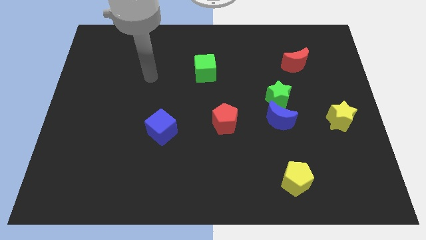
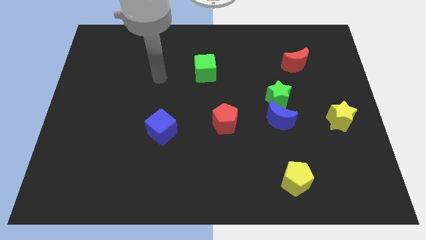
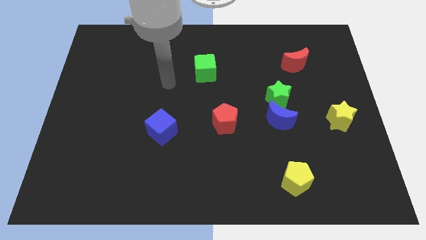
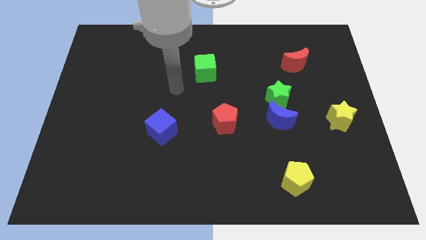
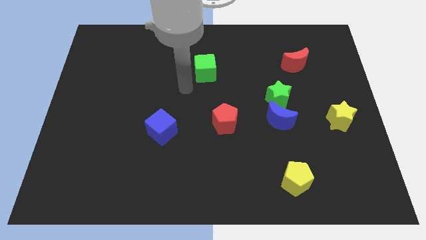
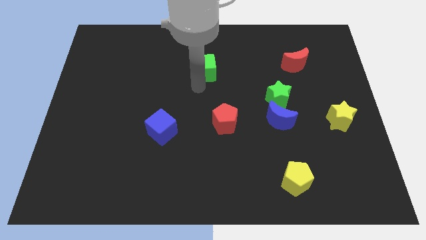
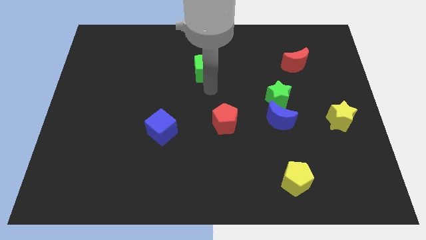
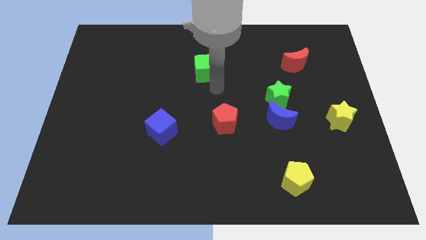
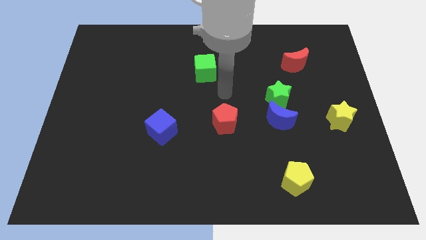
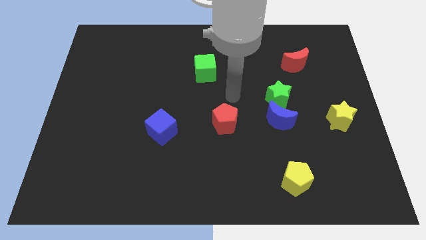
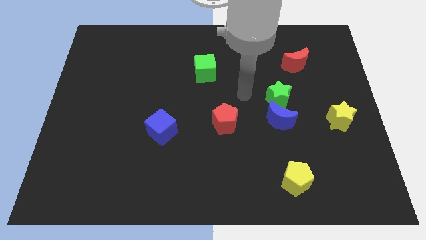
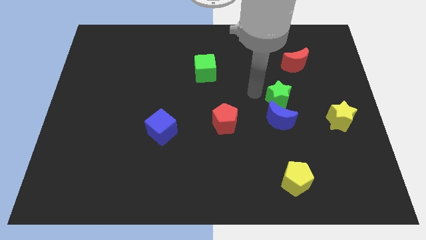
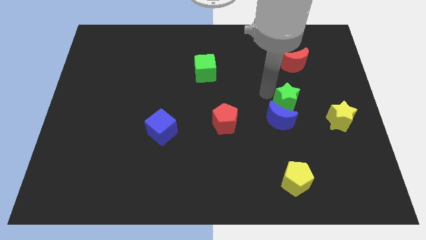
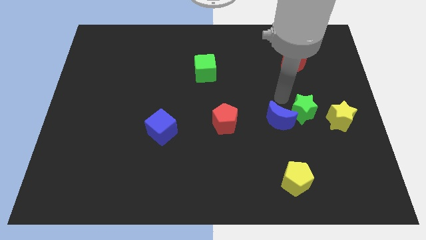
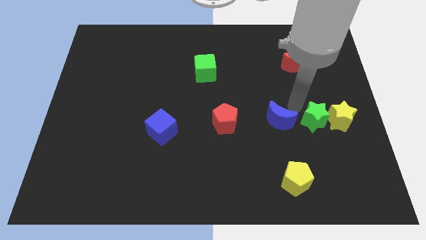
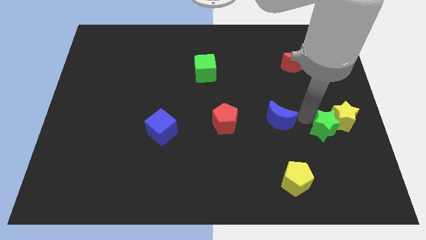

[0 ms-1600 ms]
move the blue moon away from the green star

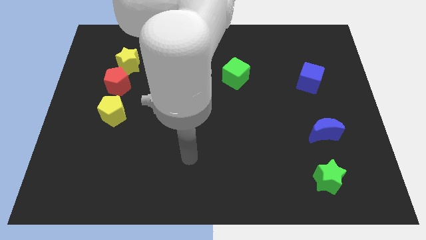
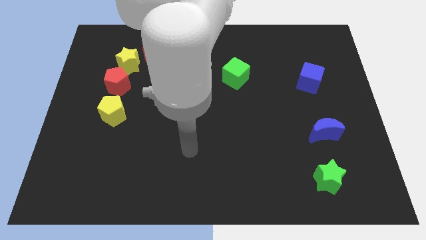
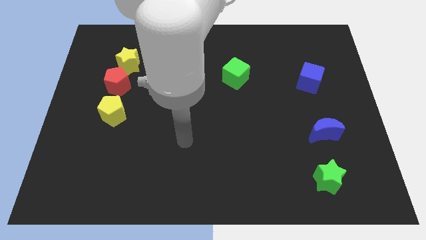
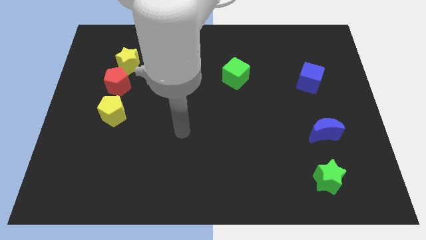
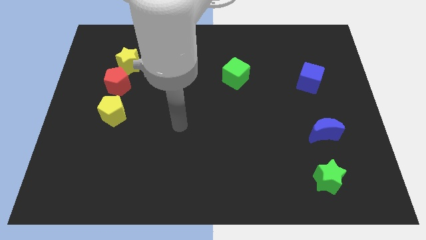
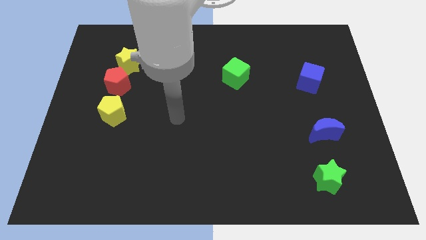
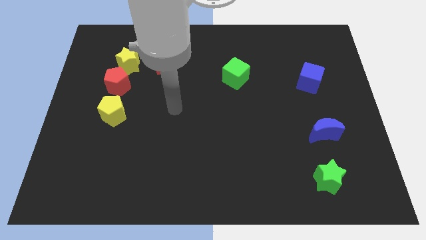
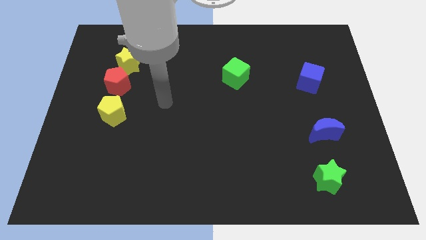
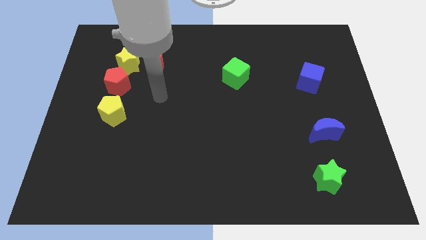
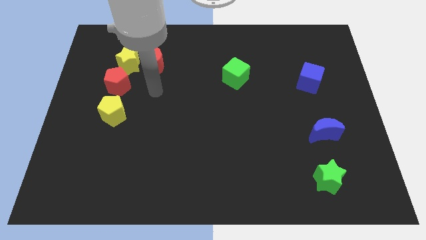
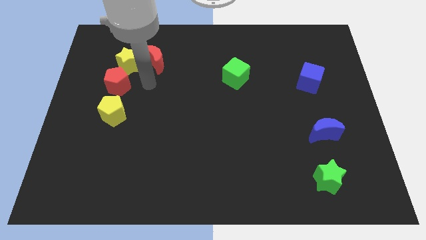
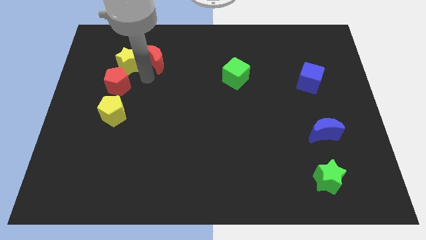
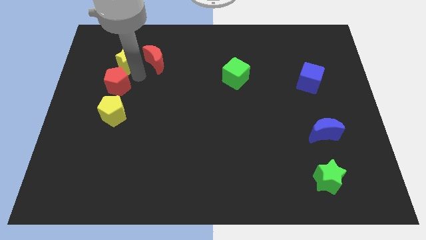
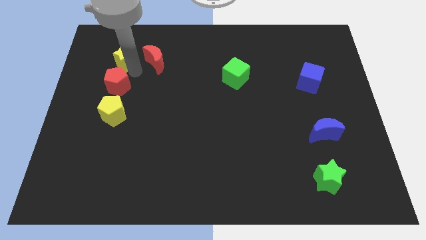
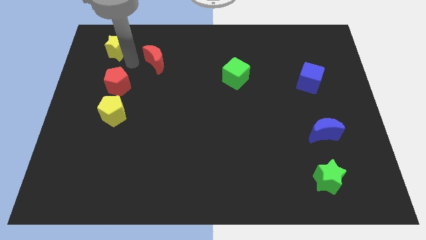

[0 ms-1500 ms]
pull the red moon apart from the yellow star

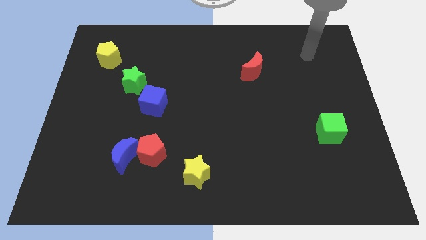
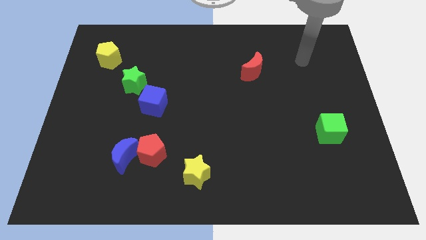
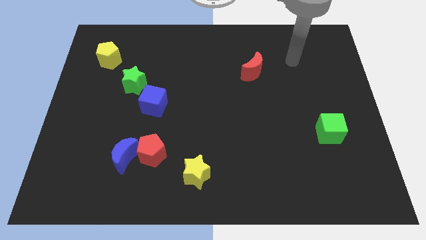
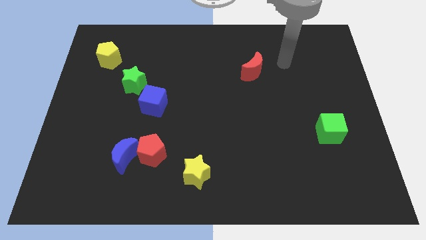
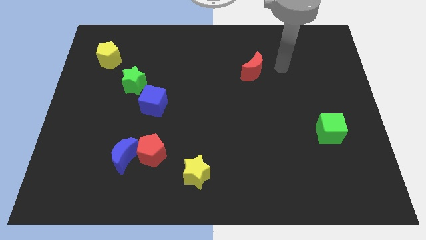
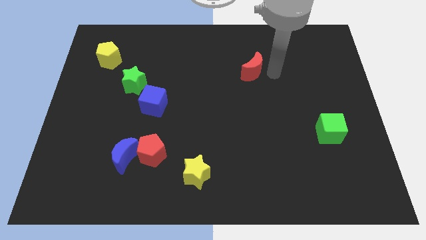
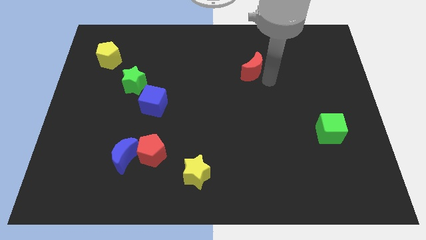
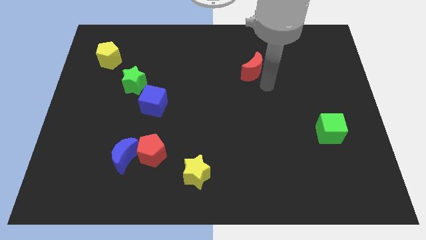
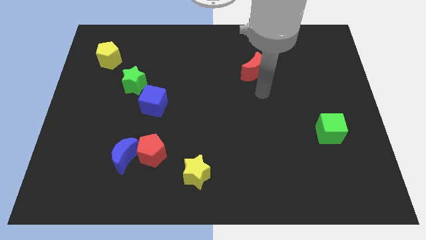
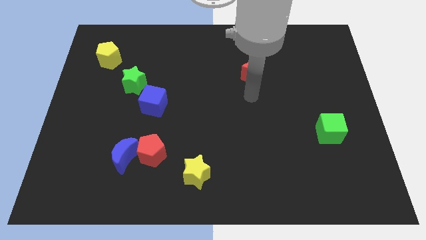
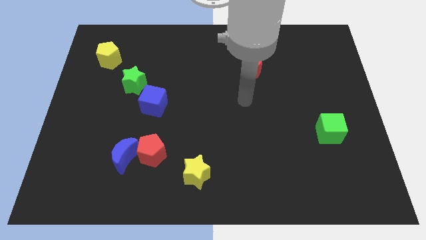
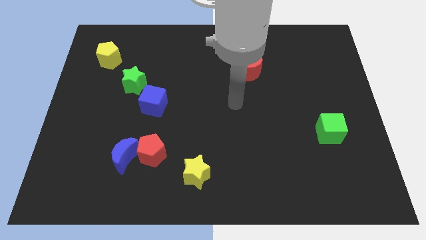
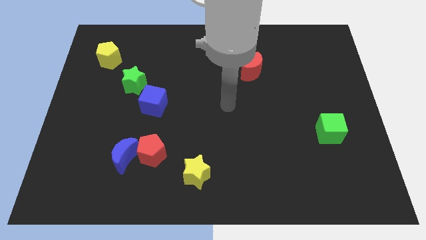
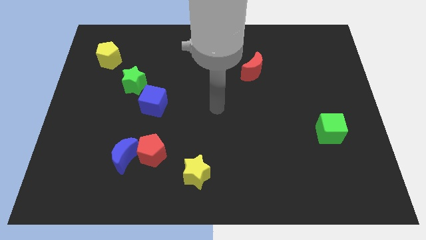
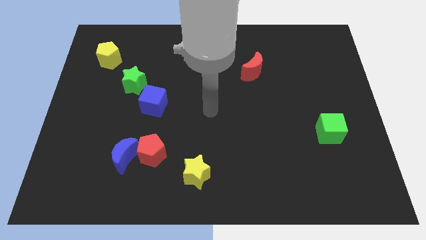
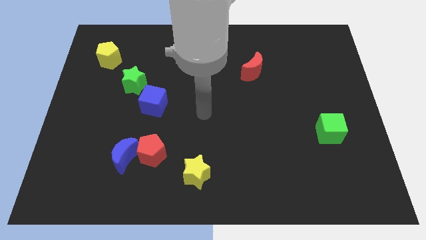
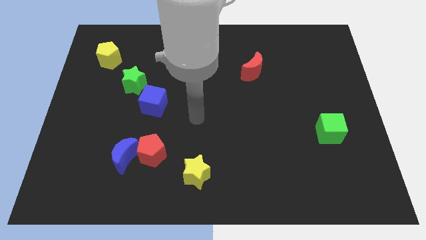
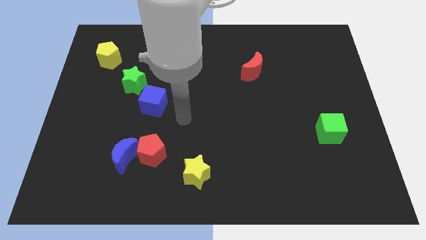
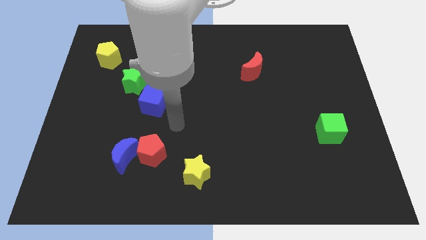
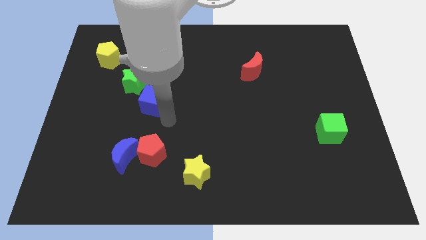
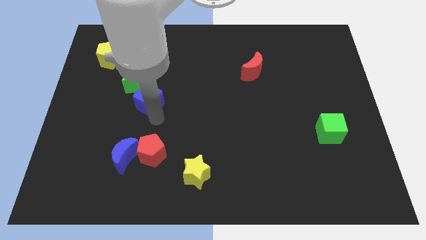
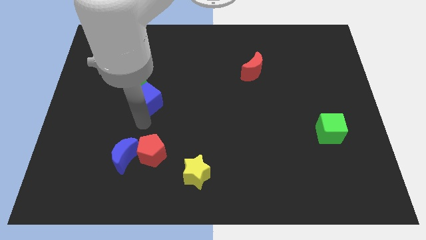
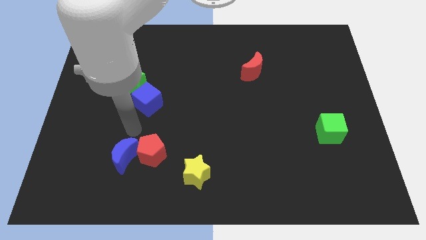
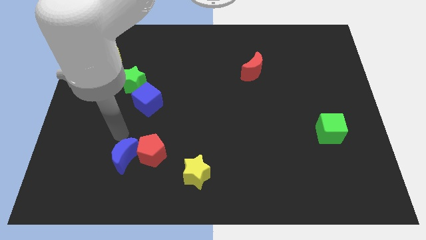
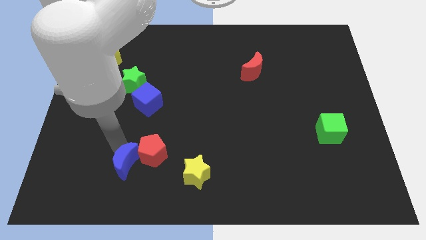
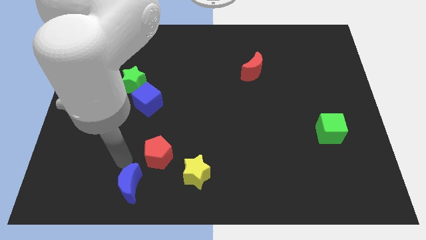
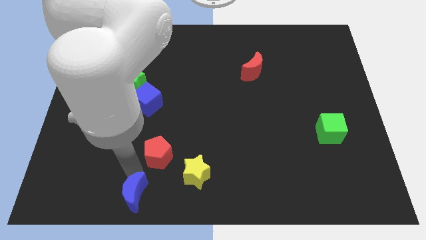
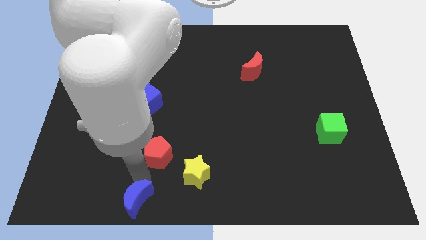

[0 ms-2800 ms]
move the red pentagon away from the blue moon

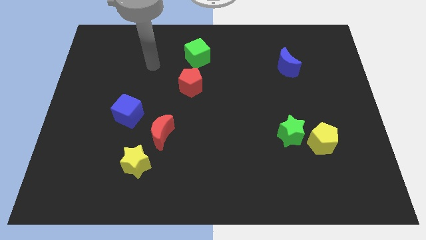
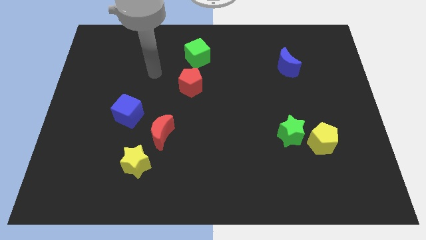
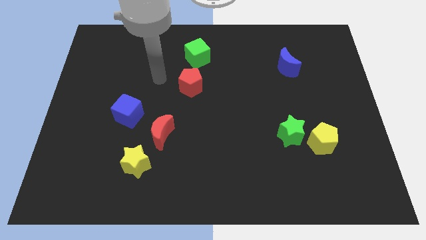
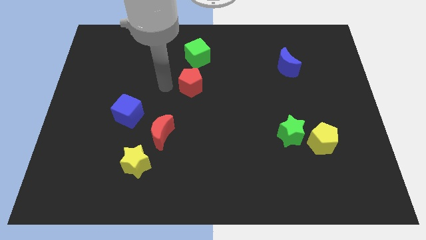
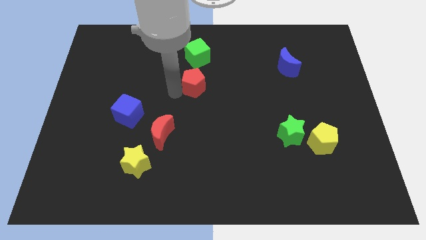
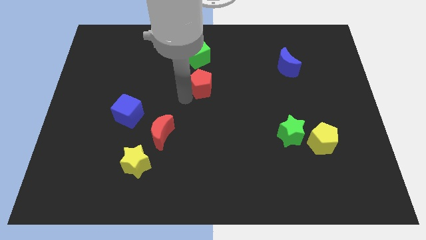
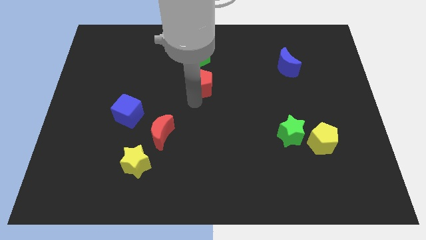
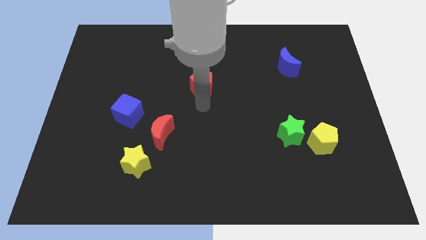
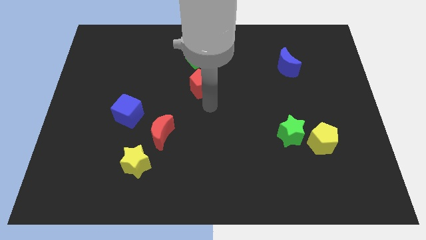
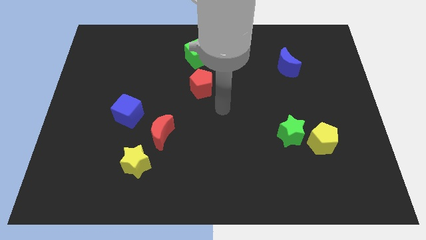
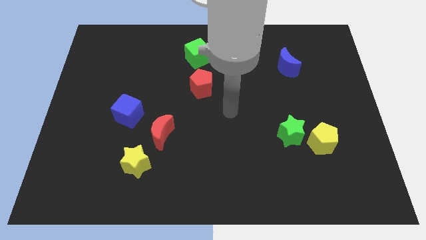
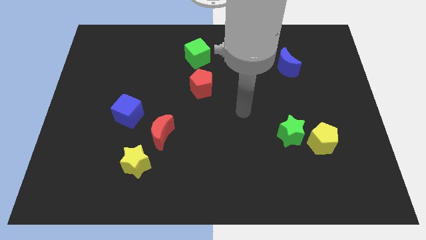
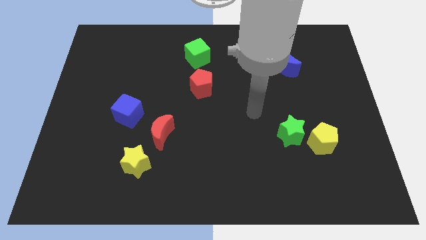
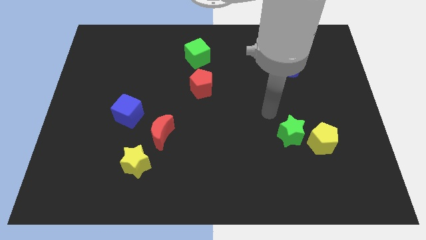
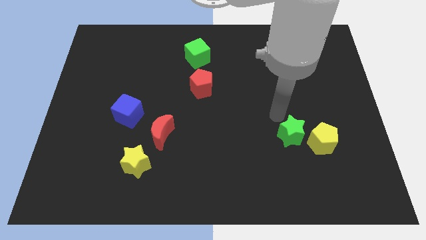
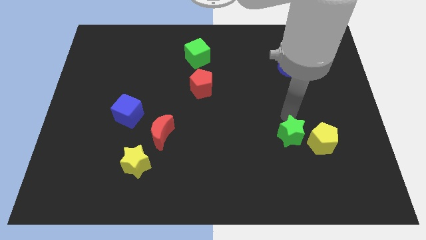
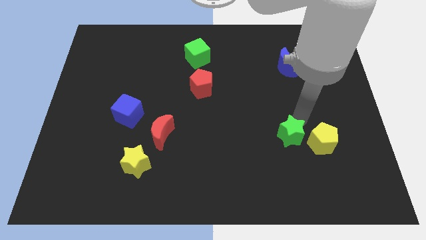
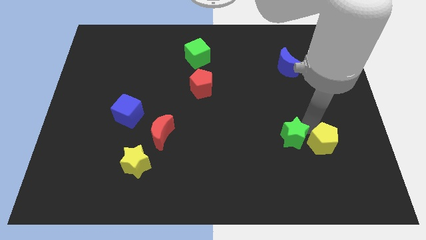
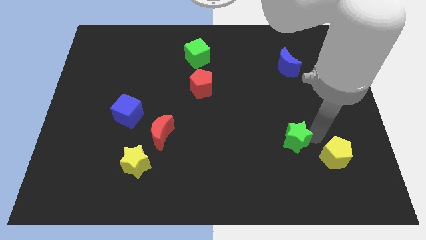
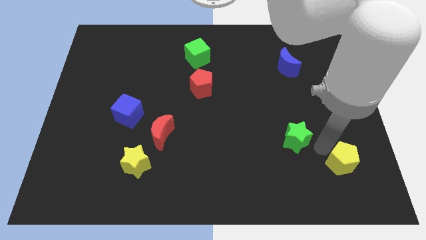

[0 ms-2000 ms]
separate the green star from the yellow pentagon

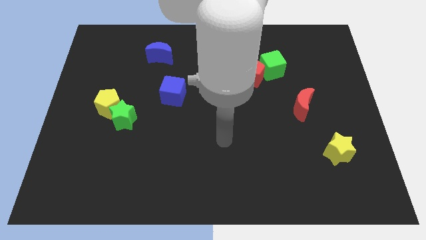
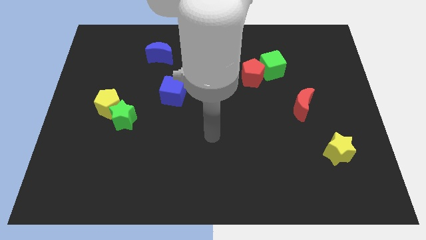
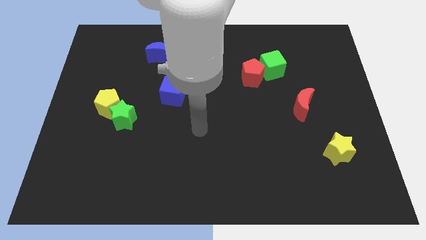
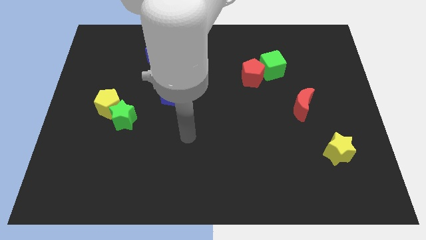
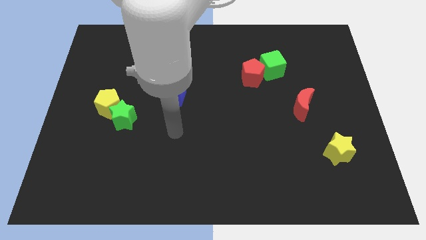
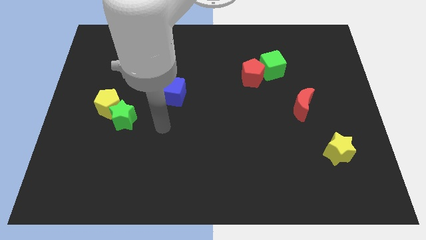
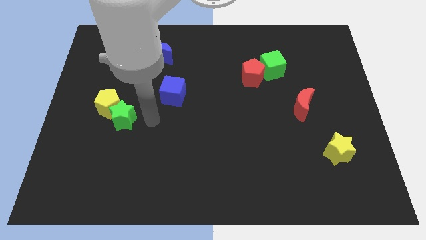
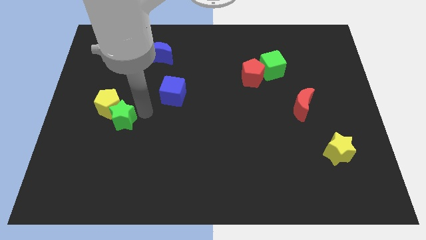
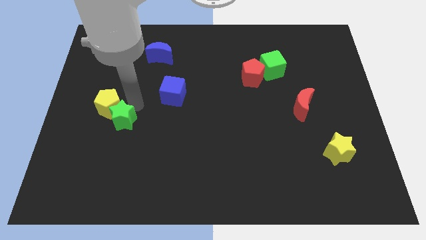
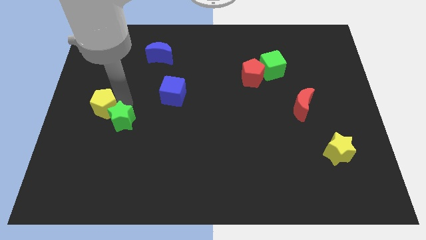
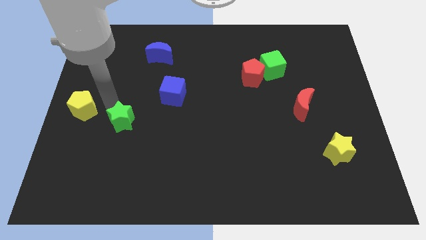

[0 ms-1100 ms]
pull the green star apart from the yellow pentagon

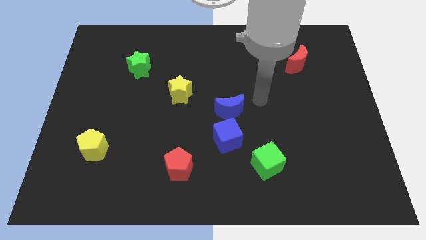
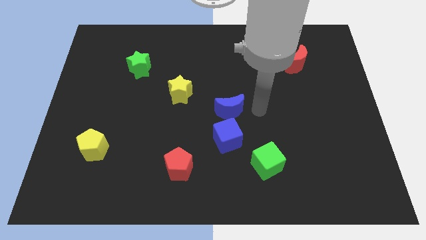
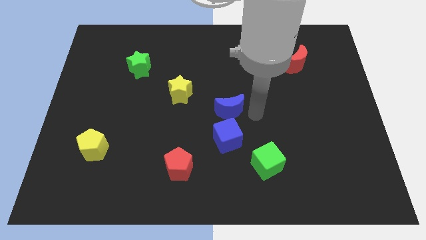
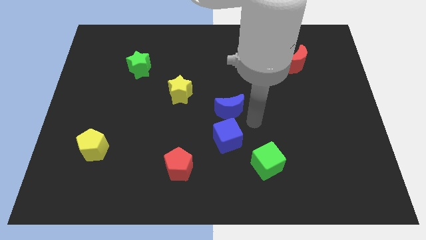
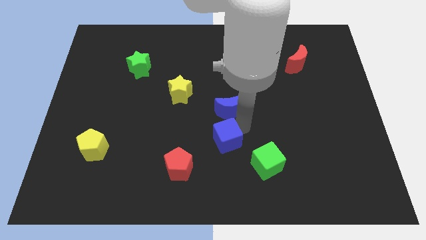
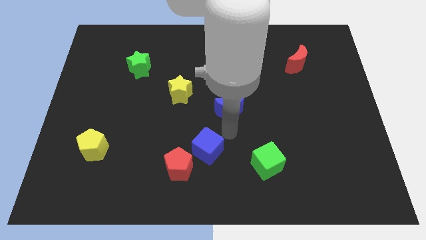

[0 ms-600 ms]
separate the blue moon from the blue cube
